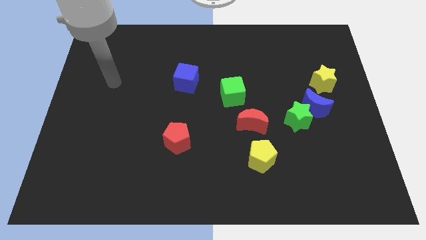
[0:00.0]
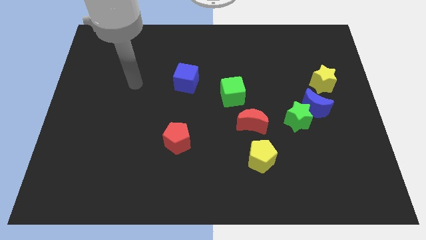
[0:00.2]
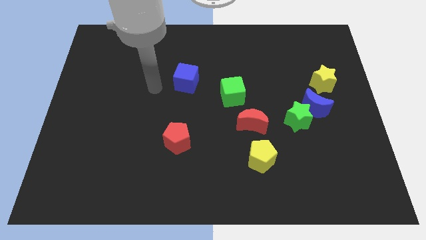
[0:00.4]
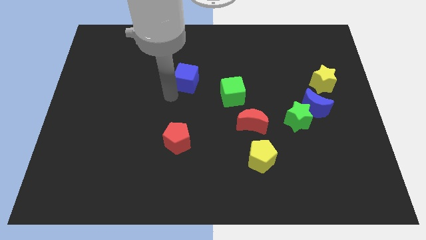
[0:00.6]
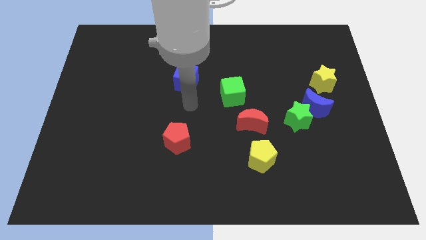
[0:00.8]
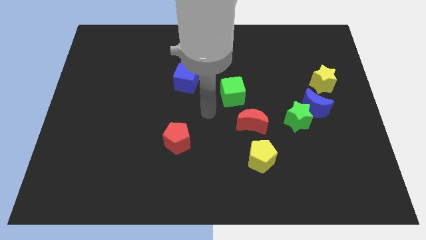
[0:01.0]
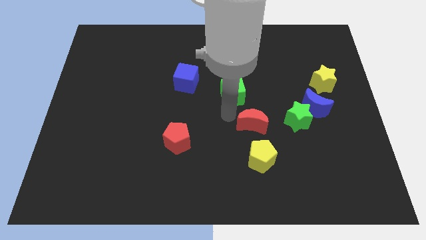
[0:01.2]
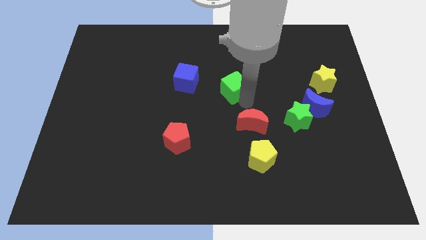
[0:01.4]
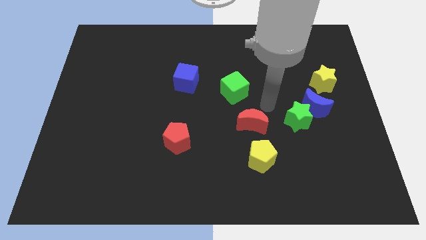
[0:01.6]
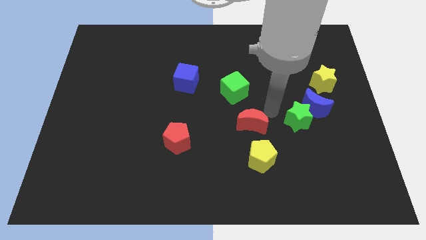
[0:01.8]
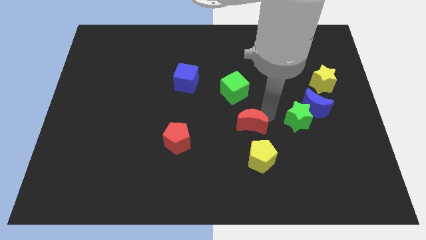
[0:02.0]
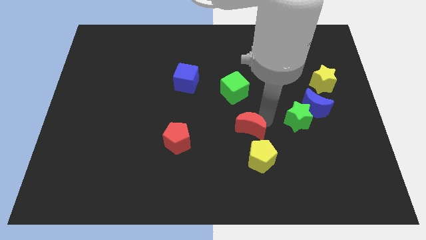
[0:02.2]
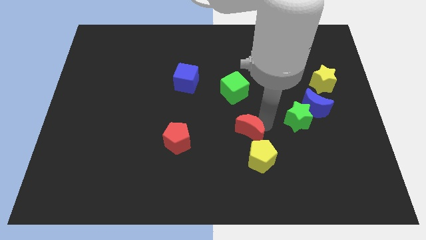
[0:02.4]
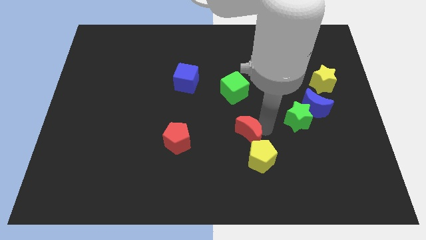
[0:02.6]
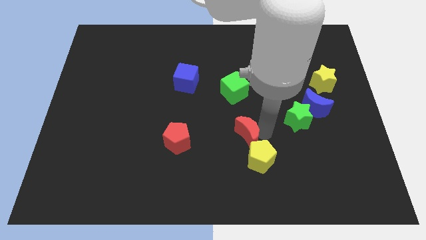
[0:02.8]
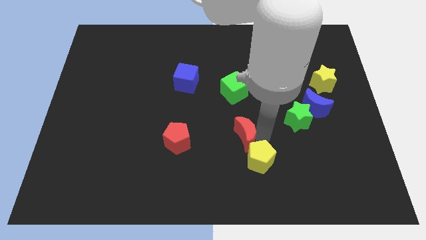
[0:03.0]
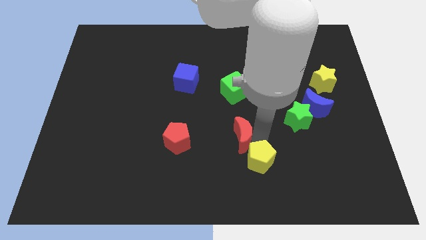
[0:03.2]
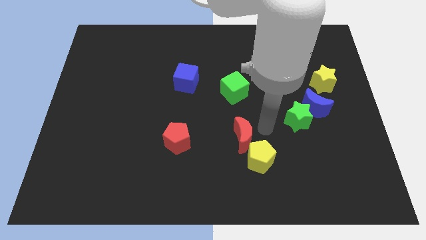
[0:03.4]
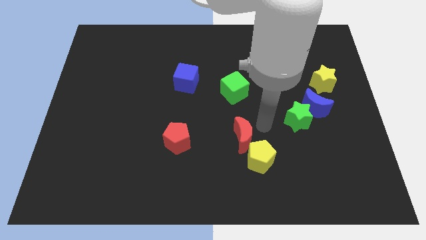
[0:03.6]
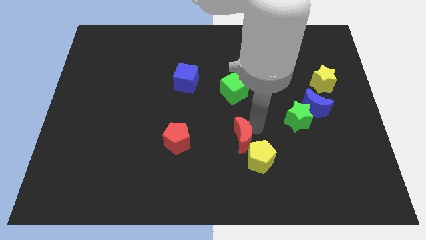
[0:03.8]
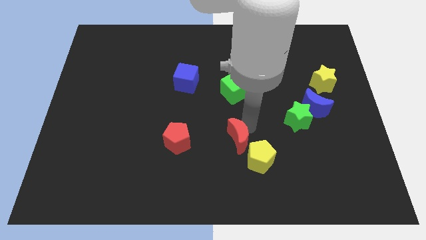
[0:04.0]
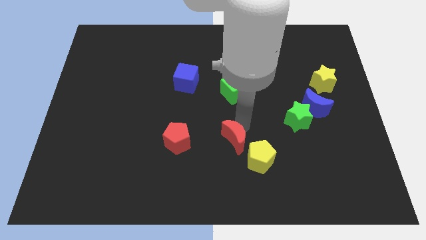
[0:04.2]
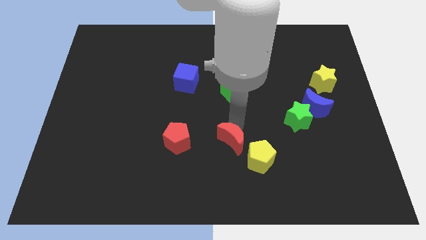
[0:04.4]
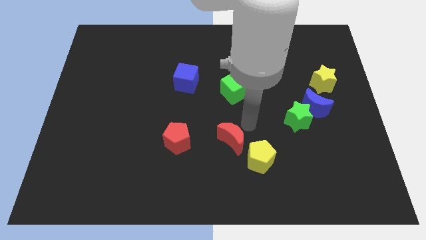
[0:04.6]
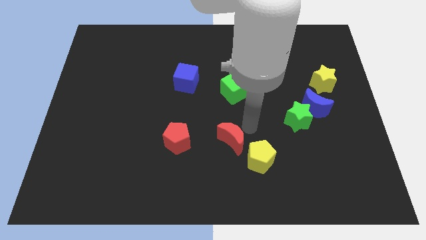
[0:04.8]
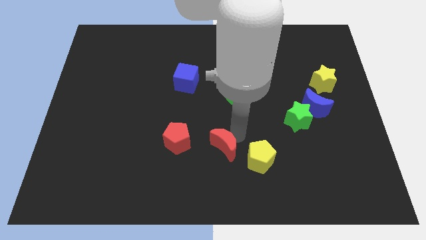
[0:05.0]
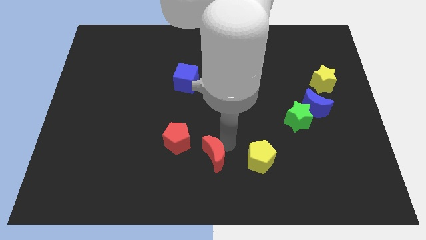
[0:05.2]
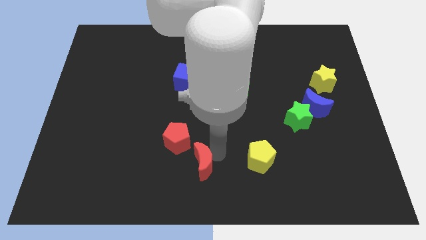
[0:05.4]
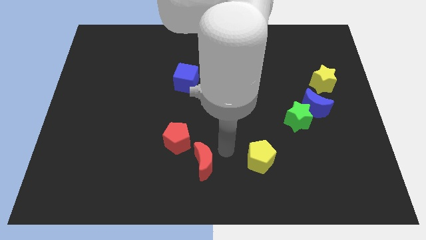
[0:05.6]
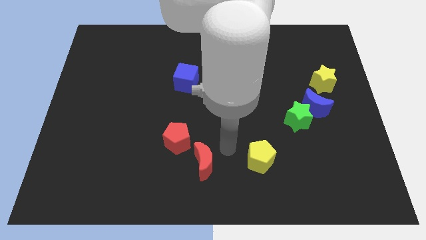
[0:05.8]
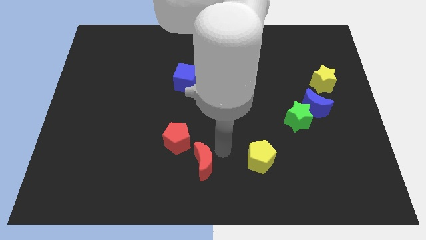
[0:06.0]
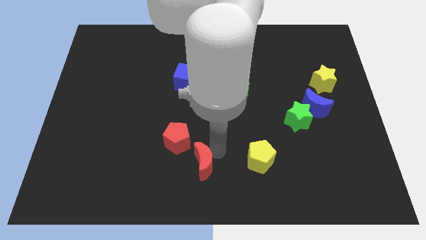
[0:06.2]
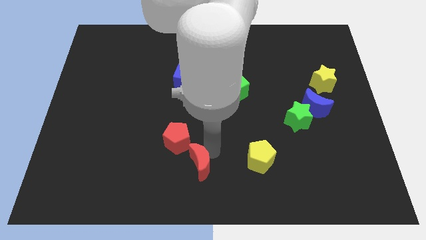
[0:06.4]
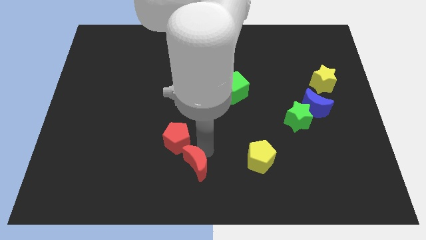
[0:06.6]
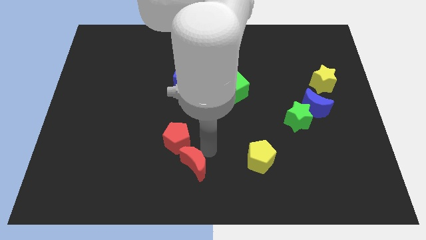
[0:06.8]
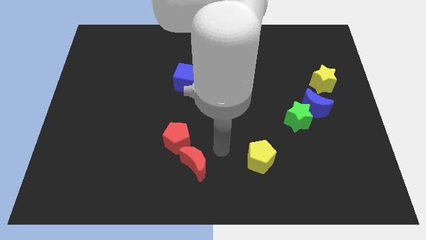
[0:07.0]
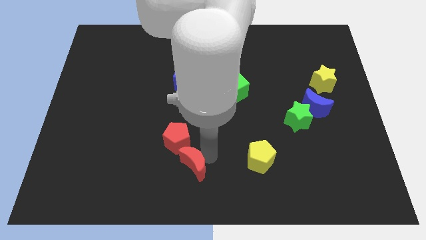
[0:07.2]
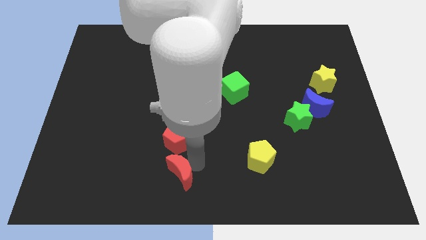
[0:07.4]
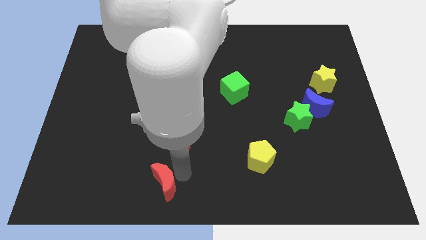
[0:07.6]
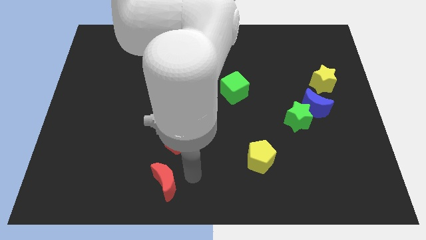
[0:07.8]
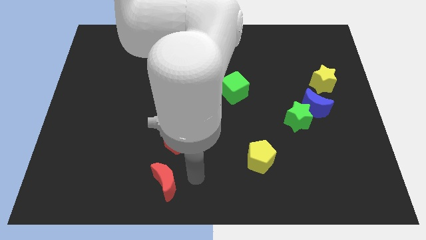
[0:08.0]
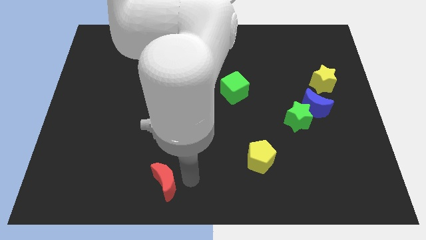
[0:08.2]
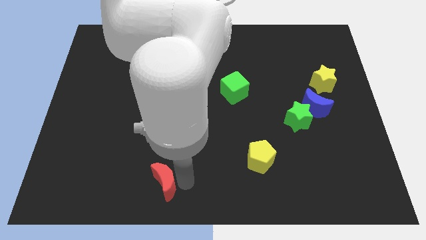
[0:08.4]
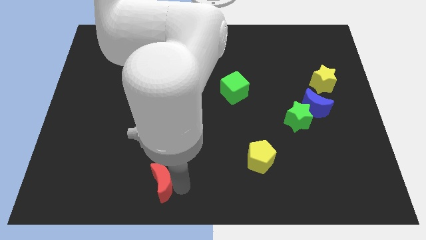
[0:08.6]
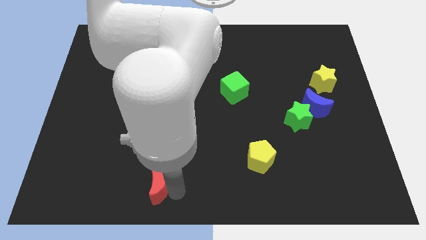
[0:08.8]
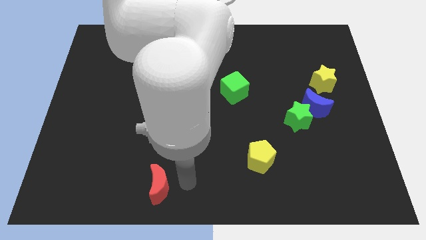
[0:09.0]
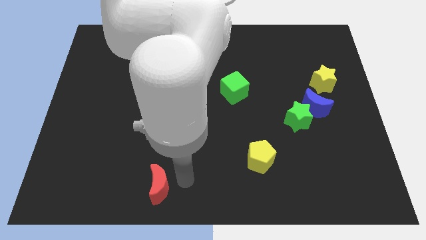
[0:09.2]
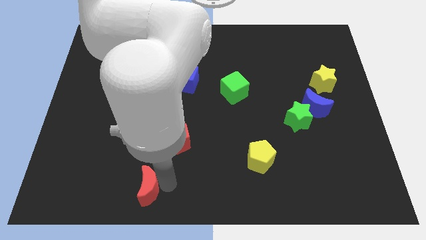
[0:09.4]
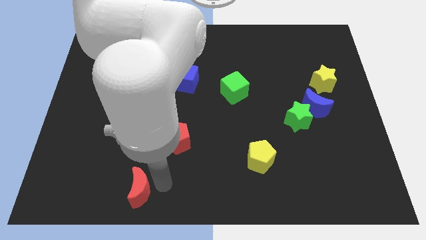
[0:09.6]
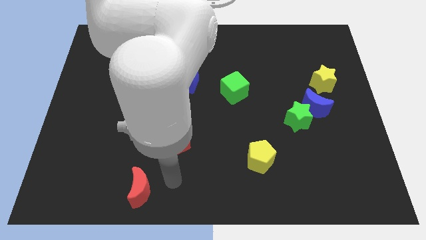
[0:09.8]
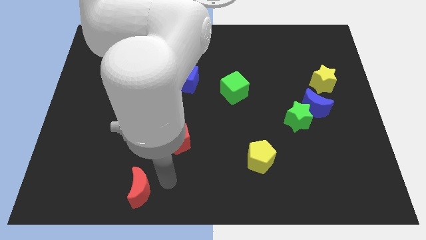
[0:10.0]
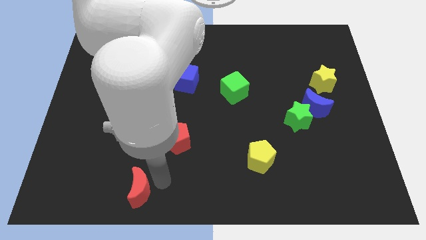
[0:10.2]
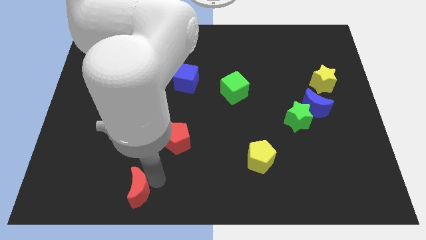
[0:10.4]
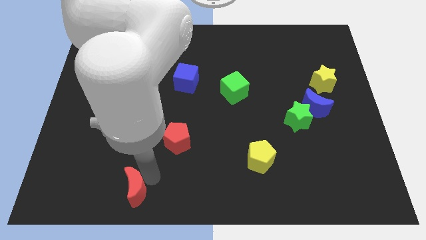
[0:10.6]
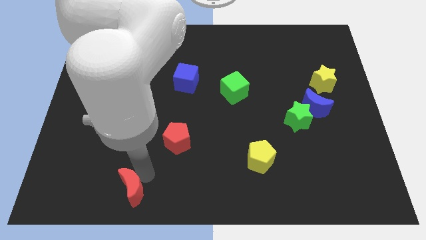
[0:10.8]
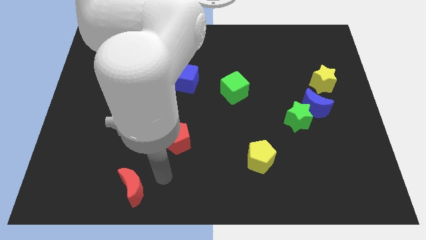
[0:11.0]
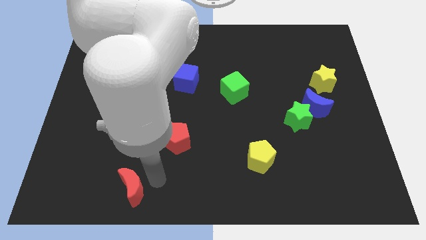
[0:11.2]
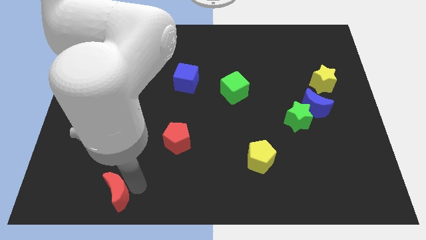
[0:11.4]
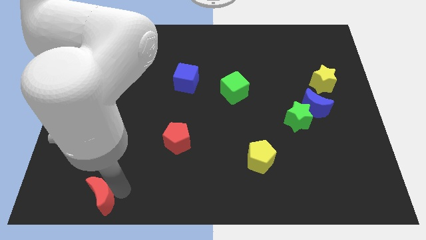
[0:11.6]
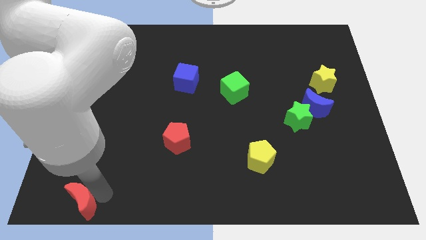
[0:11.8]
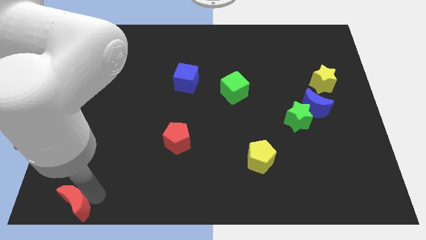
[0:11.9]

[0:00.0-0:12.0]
put the red moon to the bottom left

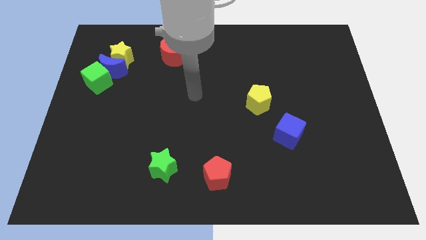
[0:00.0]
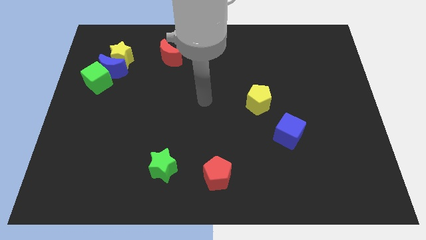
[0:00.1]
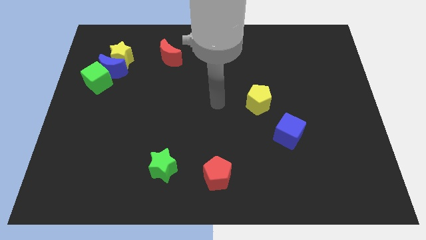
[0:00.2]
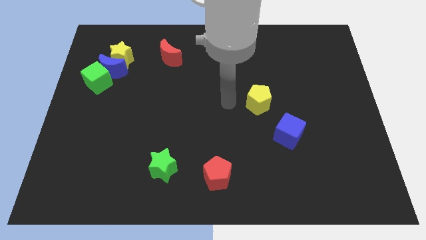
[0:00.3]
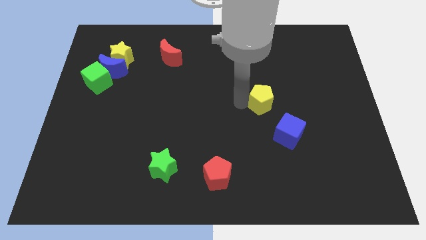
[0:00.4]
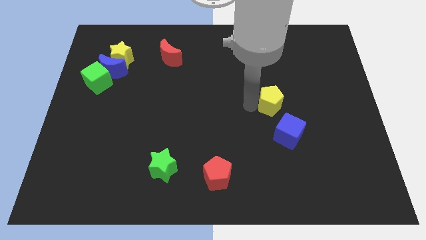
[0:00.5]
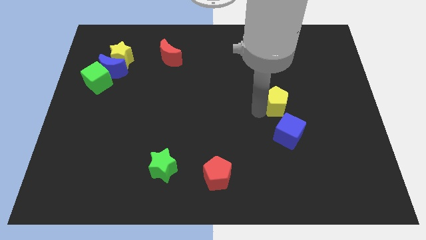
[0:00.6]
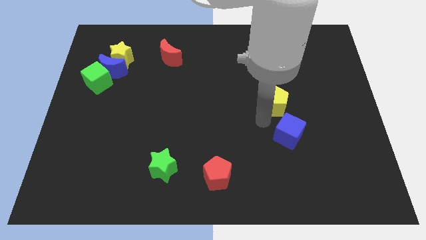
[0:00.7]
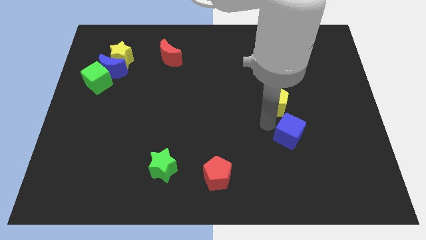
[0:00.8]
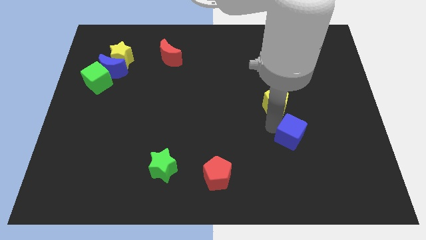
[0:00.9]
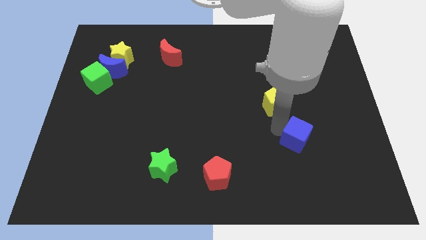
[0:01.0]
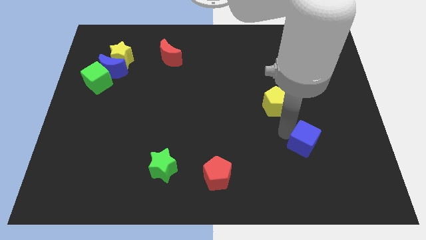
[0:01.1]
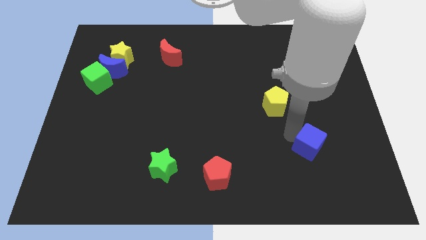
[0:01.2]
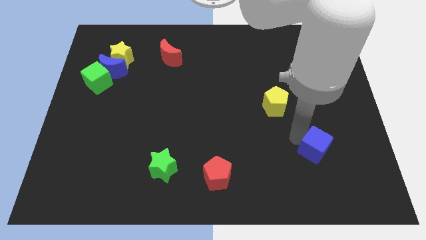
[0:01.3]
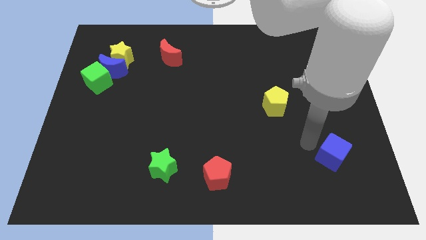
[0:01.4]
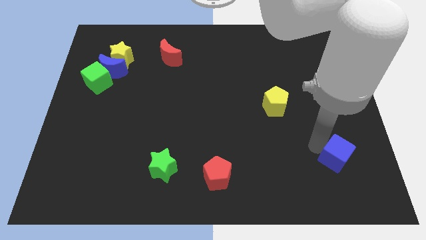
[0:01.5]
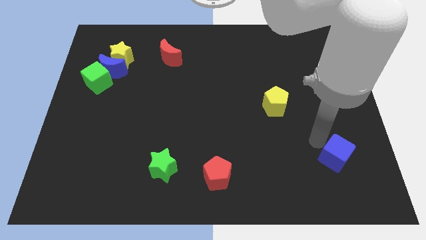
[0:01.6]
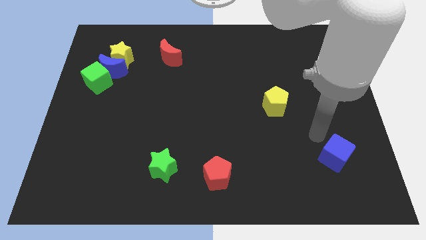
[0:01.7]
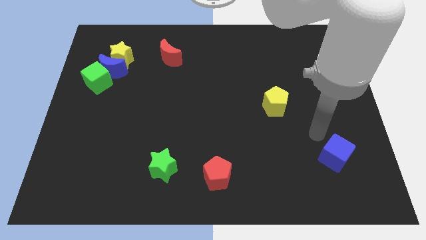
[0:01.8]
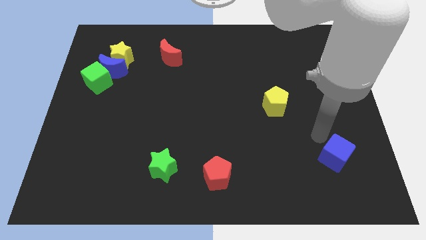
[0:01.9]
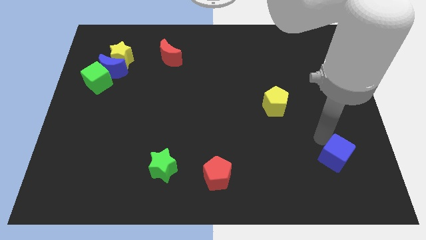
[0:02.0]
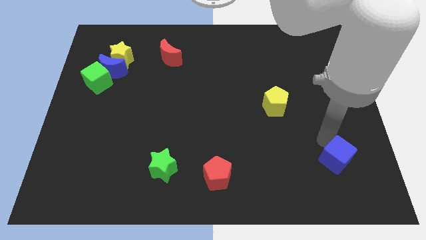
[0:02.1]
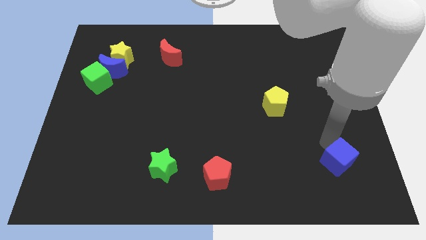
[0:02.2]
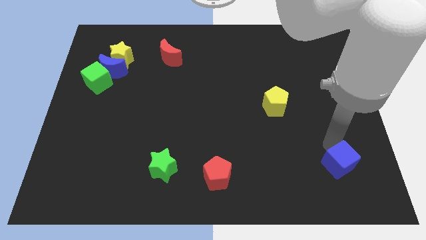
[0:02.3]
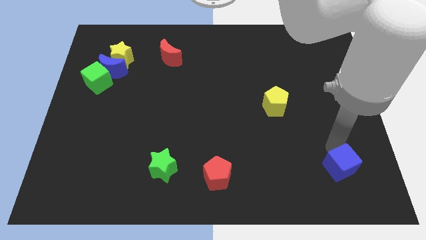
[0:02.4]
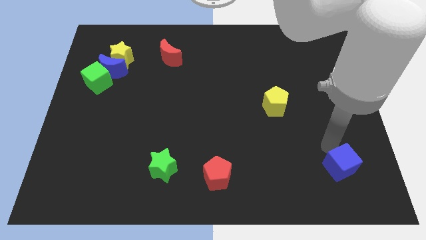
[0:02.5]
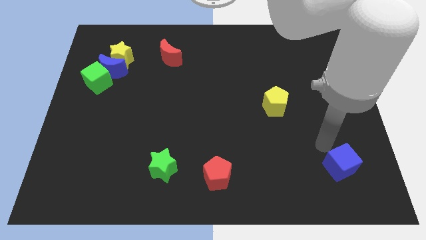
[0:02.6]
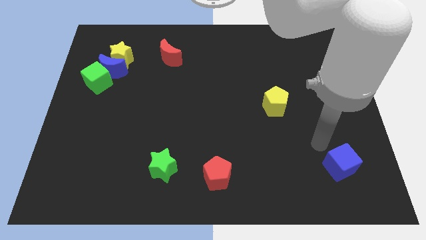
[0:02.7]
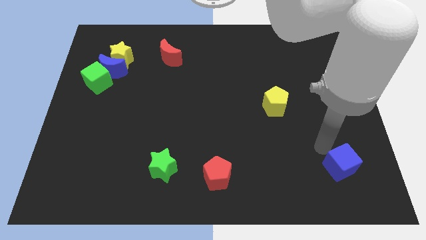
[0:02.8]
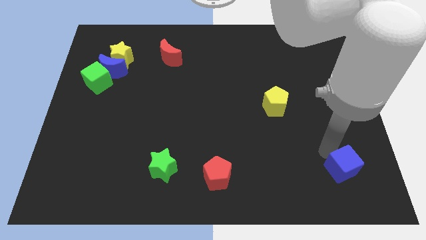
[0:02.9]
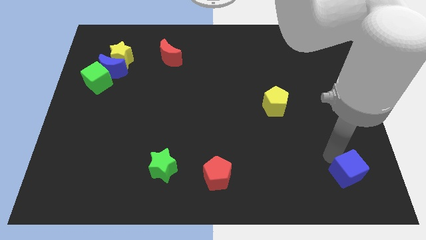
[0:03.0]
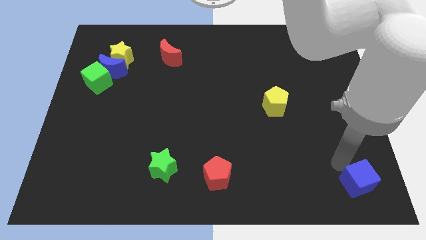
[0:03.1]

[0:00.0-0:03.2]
move the blue cube to the lower right corner
